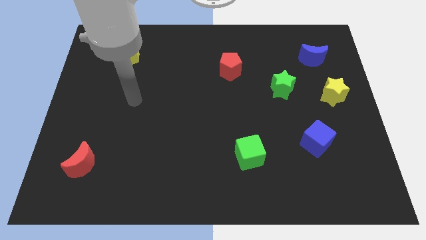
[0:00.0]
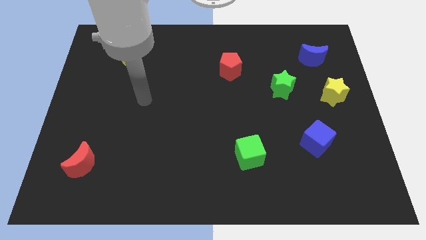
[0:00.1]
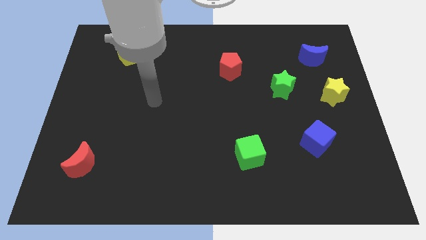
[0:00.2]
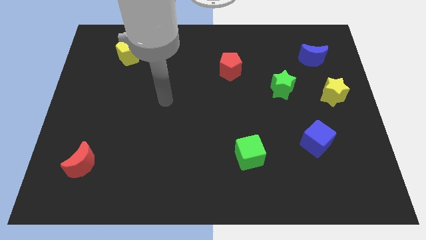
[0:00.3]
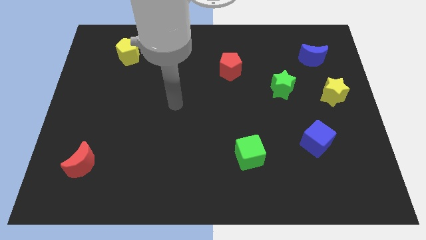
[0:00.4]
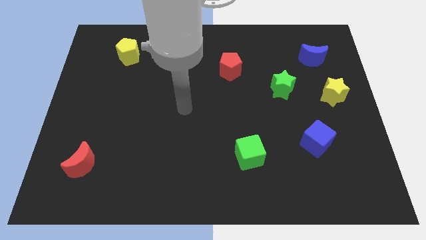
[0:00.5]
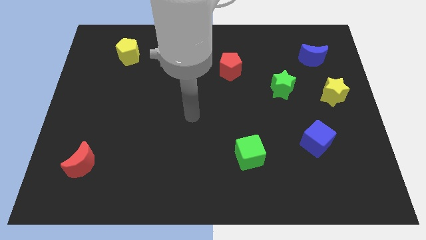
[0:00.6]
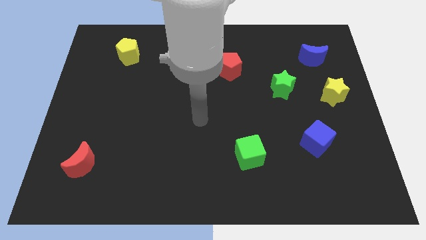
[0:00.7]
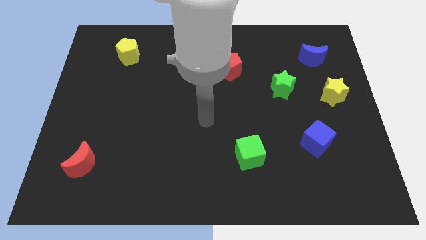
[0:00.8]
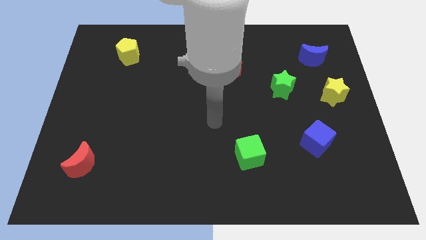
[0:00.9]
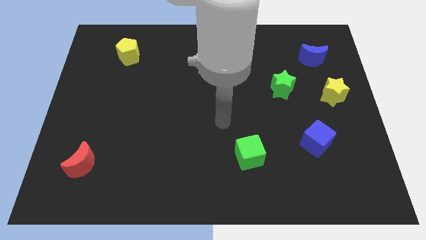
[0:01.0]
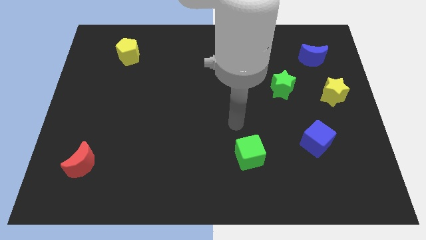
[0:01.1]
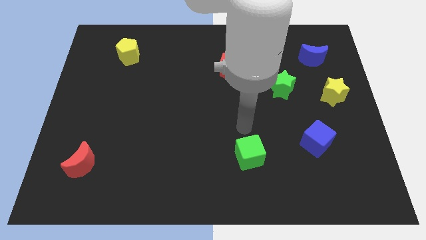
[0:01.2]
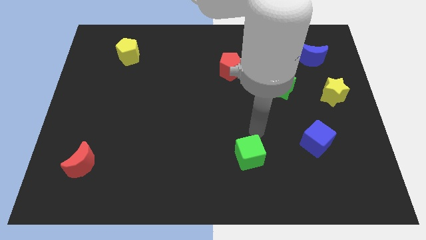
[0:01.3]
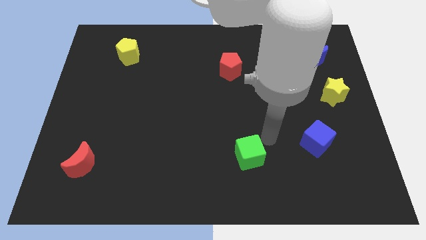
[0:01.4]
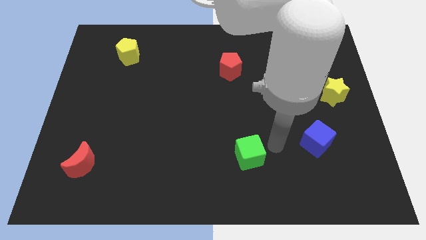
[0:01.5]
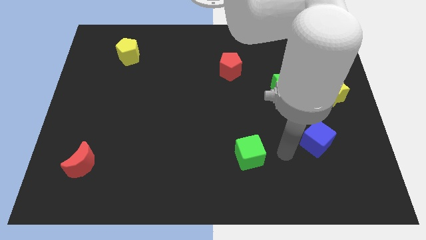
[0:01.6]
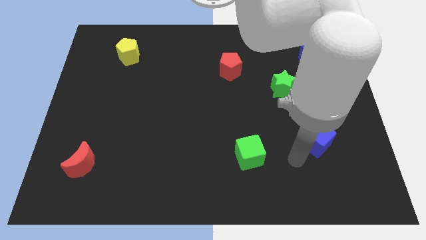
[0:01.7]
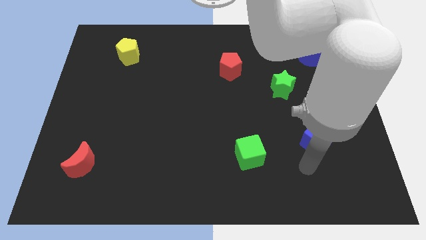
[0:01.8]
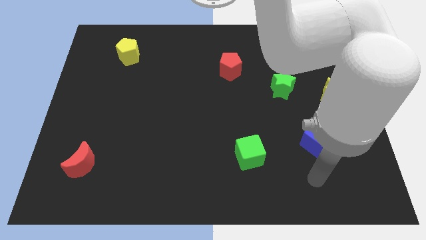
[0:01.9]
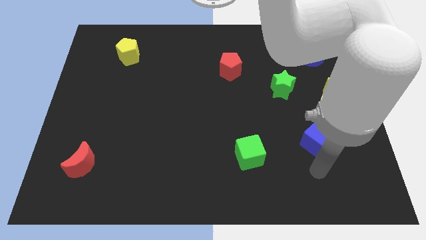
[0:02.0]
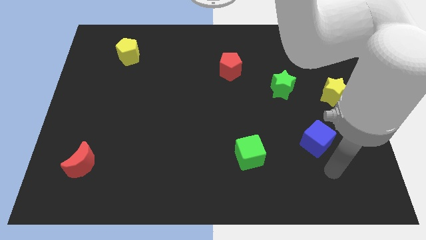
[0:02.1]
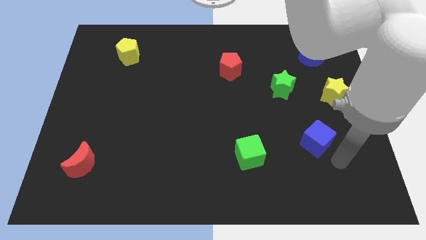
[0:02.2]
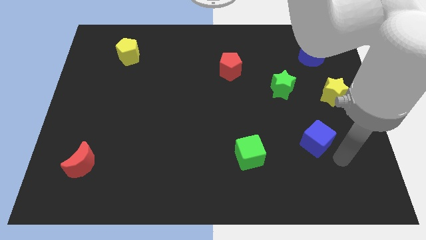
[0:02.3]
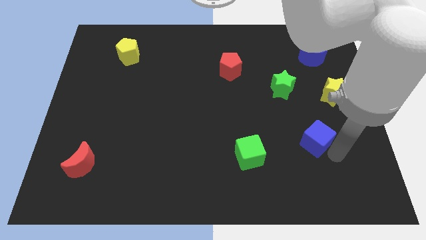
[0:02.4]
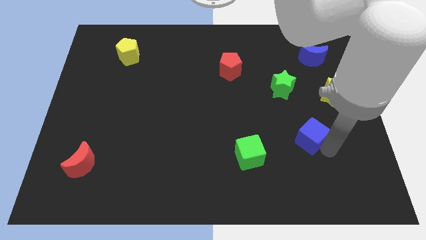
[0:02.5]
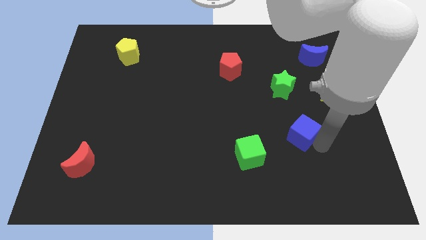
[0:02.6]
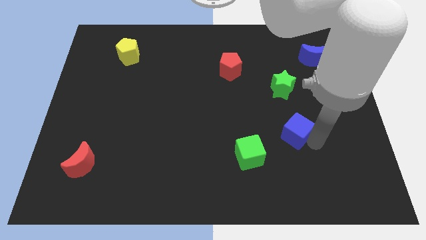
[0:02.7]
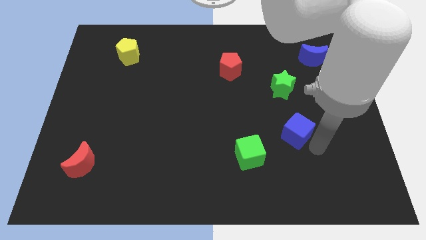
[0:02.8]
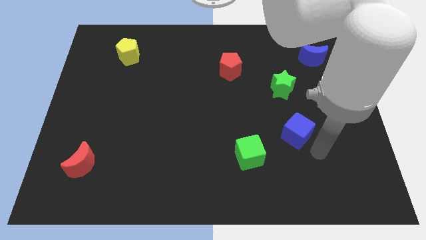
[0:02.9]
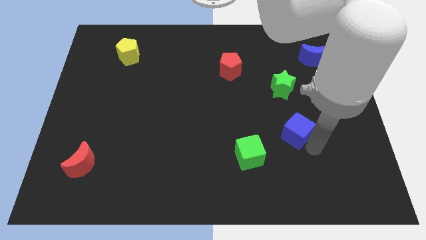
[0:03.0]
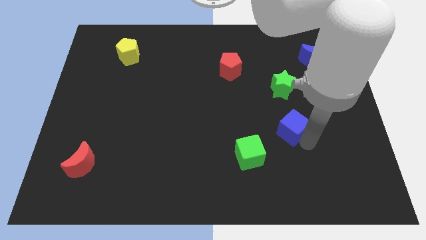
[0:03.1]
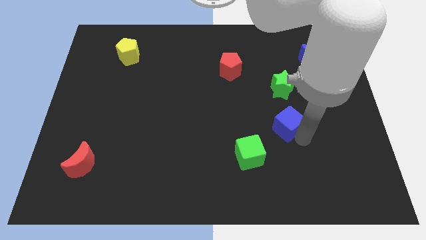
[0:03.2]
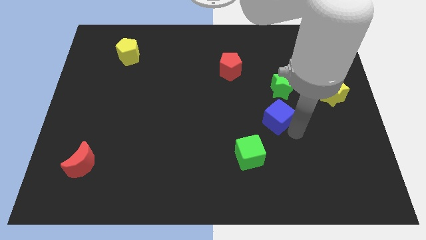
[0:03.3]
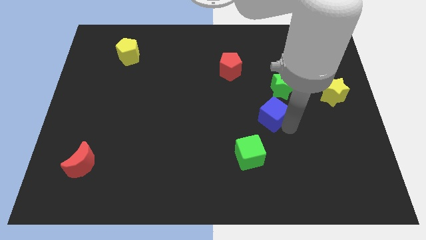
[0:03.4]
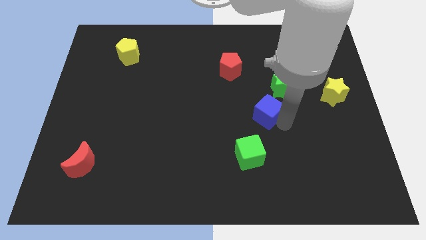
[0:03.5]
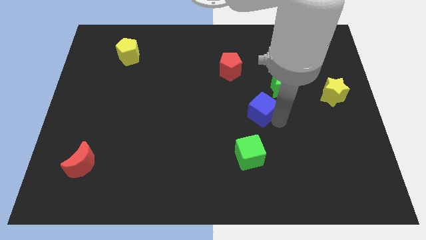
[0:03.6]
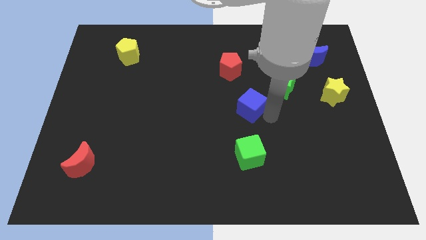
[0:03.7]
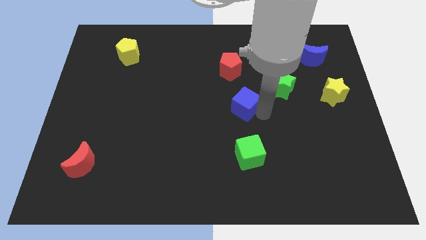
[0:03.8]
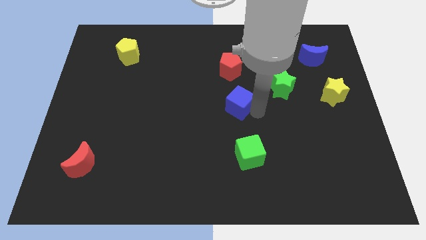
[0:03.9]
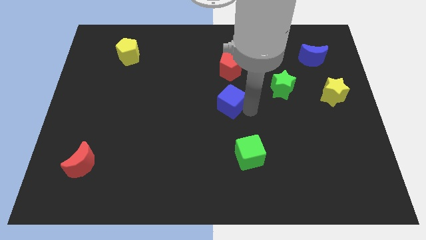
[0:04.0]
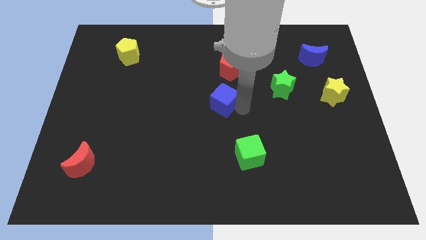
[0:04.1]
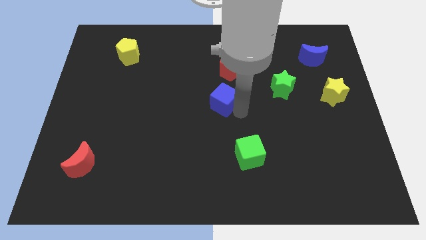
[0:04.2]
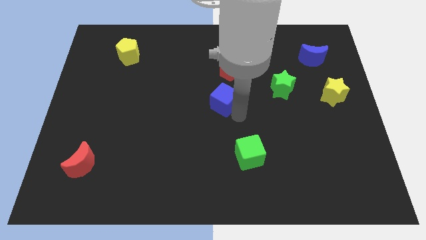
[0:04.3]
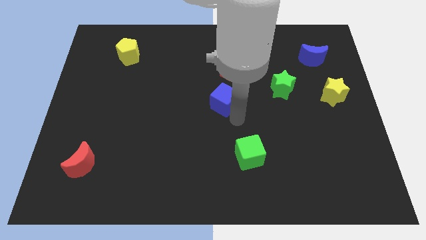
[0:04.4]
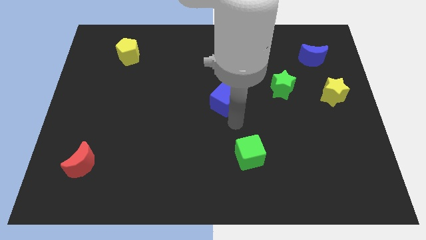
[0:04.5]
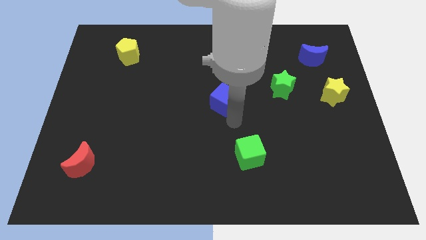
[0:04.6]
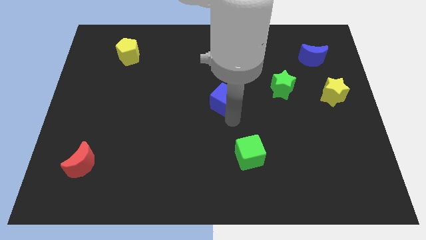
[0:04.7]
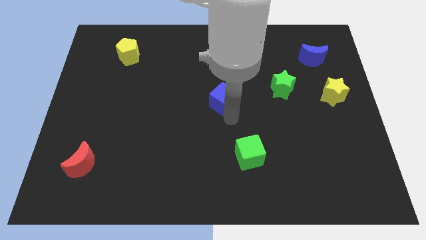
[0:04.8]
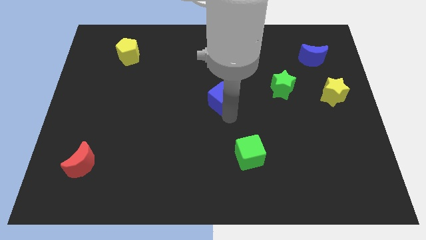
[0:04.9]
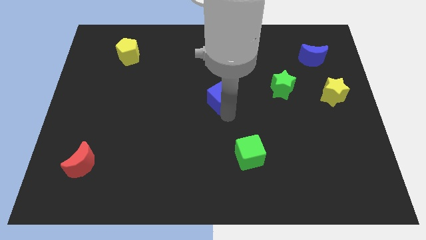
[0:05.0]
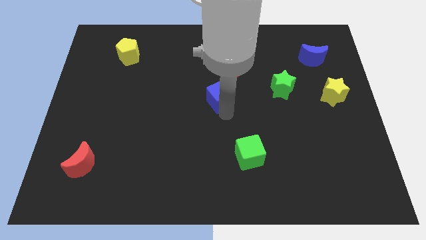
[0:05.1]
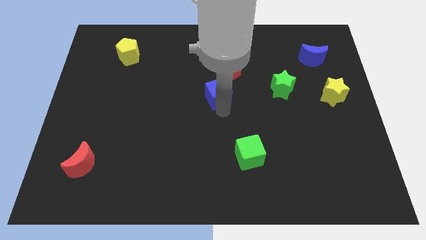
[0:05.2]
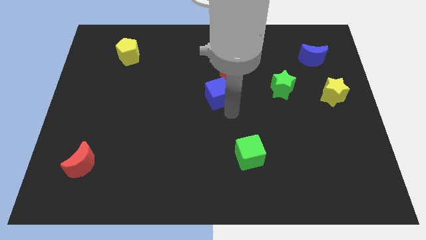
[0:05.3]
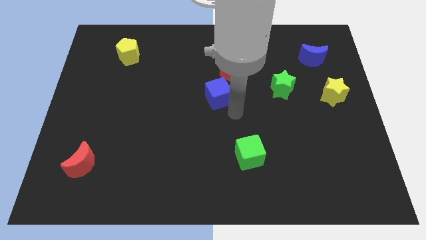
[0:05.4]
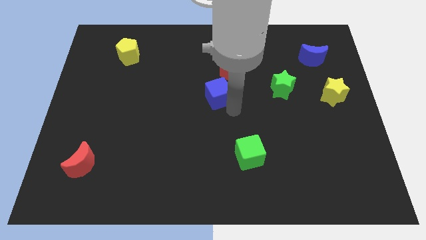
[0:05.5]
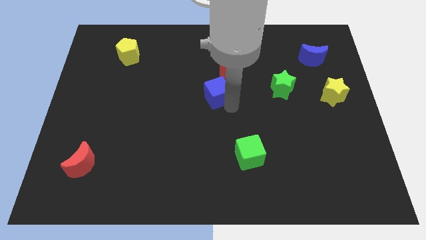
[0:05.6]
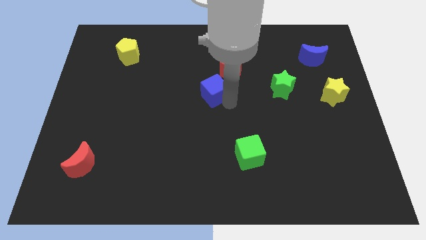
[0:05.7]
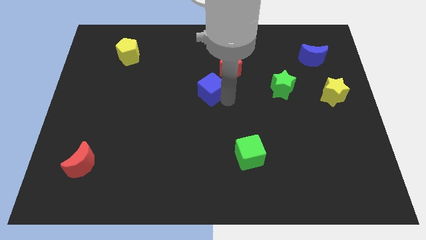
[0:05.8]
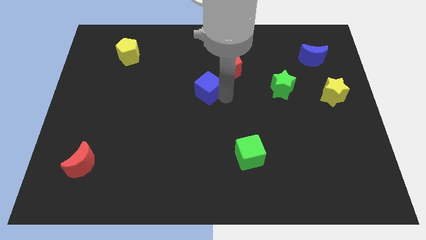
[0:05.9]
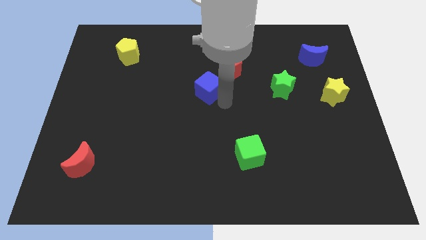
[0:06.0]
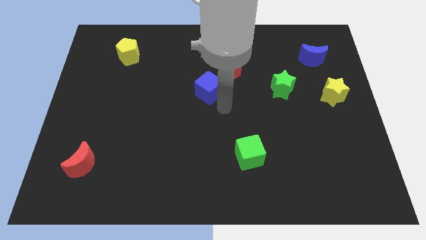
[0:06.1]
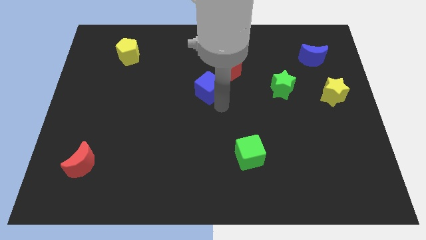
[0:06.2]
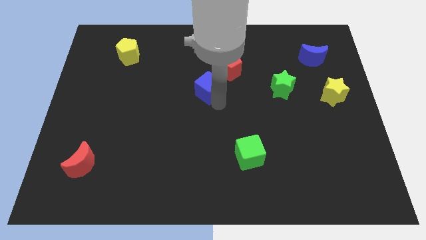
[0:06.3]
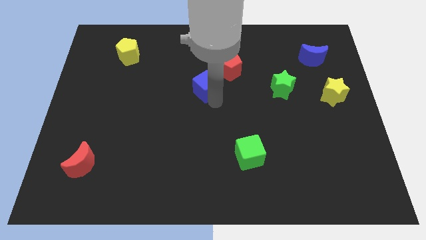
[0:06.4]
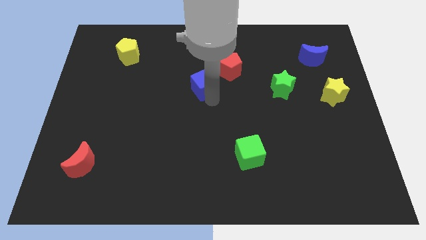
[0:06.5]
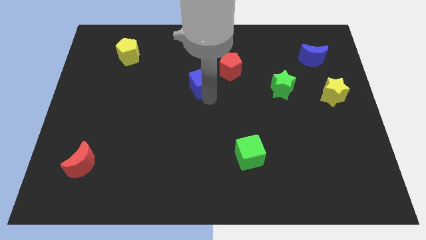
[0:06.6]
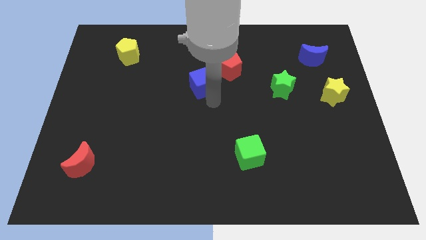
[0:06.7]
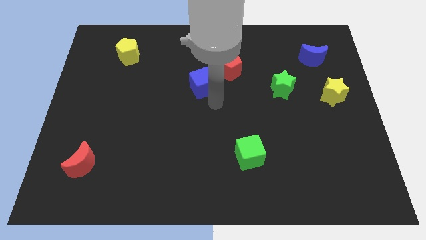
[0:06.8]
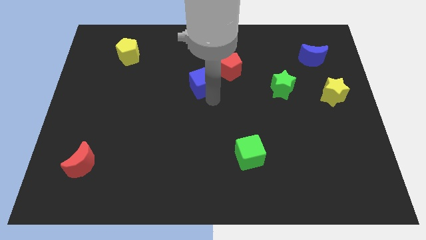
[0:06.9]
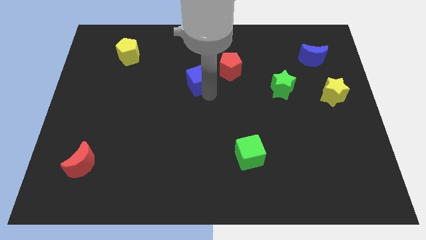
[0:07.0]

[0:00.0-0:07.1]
put the blue cube to the left of the red pentagon
